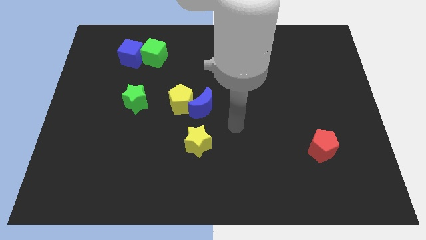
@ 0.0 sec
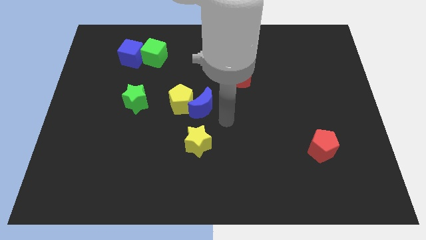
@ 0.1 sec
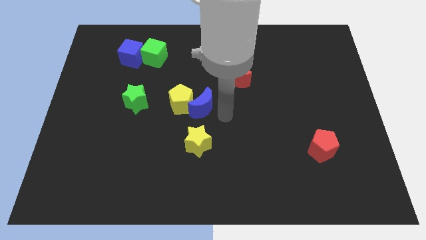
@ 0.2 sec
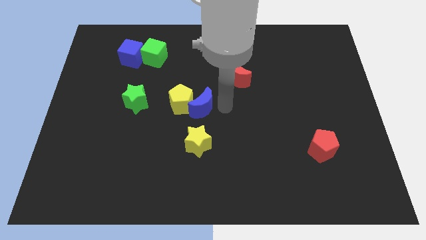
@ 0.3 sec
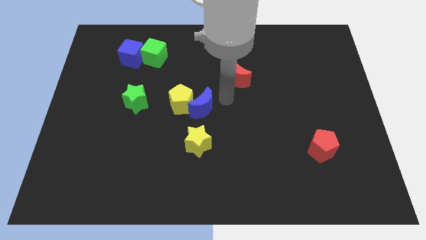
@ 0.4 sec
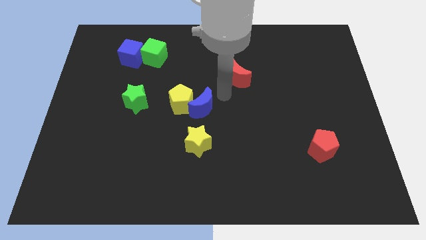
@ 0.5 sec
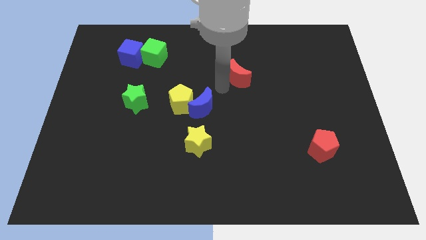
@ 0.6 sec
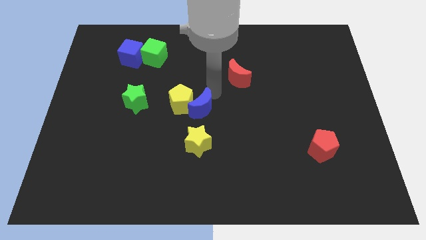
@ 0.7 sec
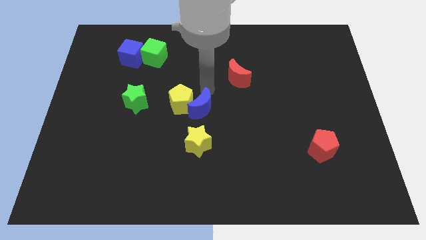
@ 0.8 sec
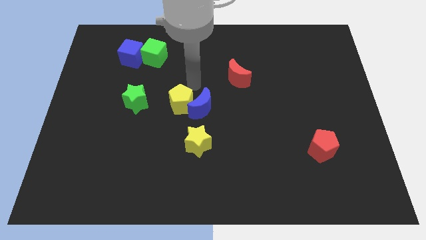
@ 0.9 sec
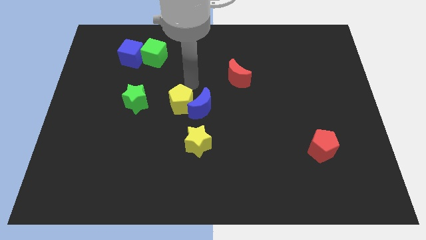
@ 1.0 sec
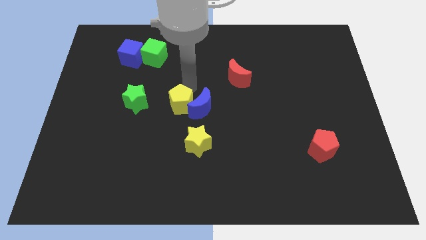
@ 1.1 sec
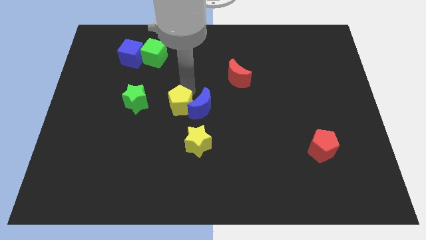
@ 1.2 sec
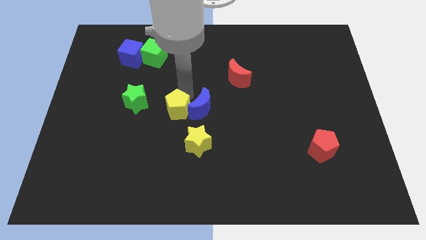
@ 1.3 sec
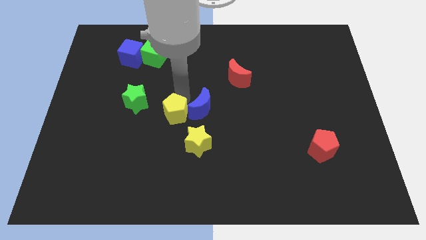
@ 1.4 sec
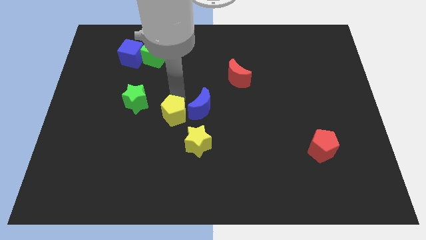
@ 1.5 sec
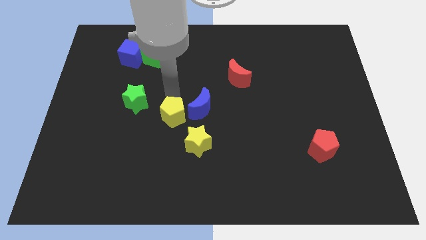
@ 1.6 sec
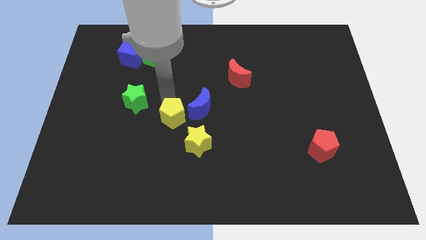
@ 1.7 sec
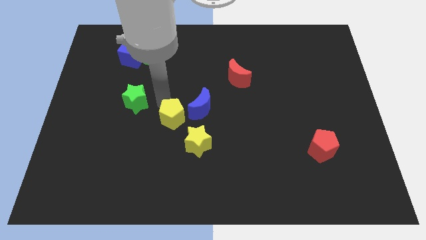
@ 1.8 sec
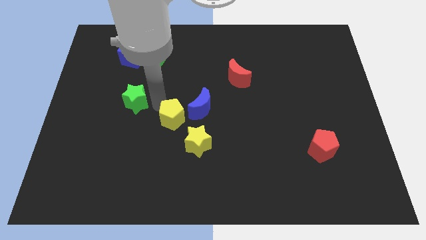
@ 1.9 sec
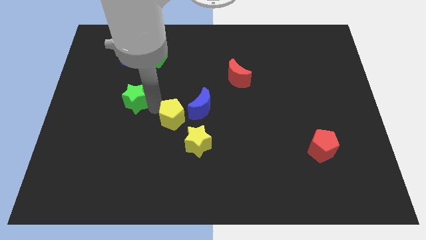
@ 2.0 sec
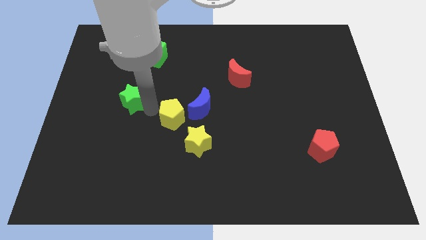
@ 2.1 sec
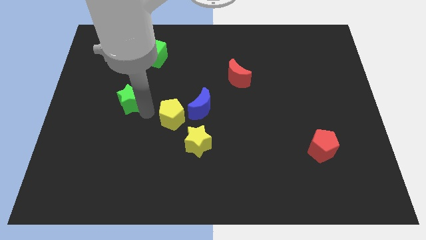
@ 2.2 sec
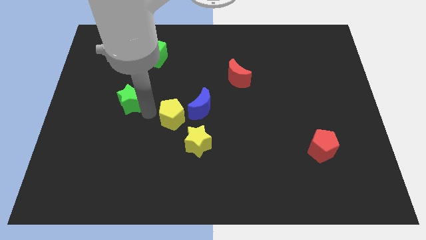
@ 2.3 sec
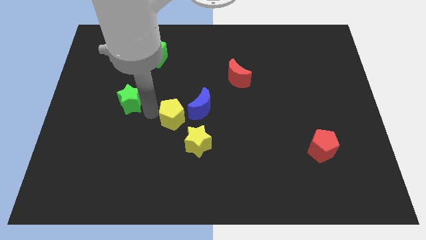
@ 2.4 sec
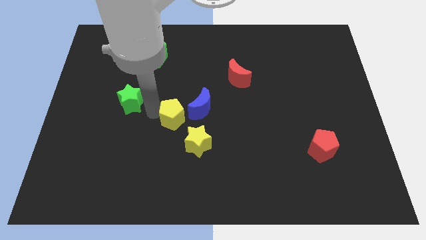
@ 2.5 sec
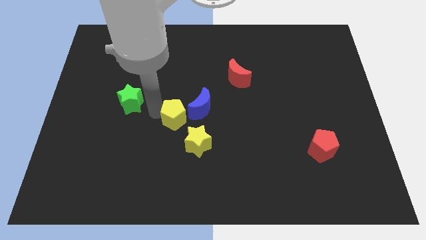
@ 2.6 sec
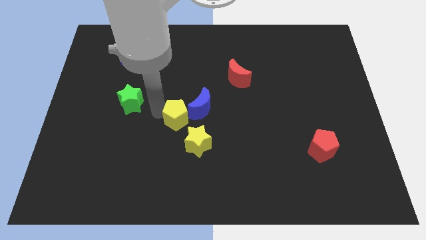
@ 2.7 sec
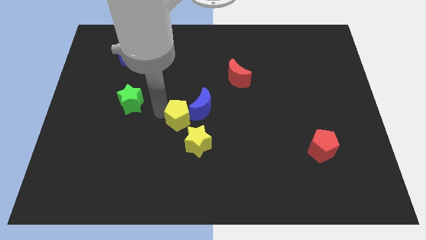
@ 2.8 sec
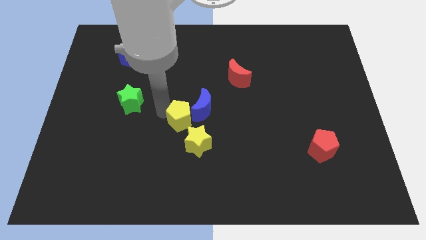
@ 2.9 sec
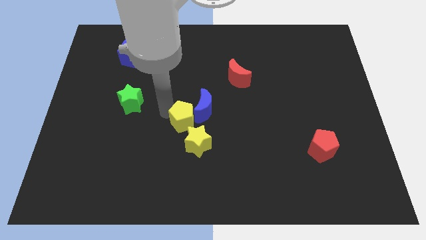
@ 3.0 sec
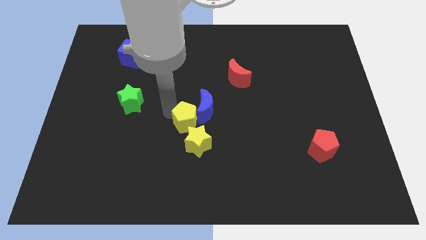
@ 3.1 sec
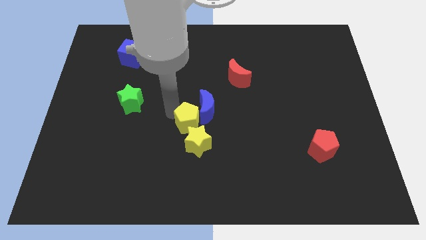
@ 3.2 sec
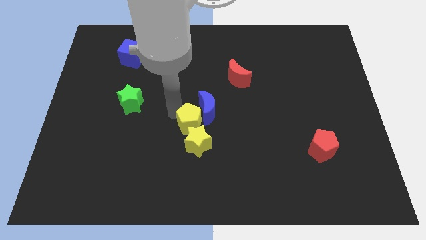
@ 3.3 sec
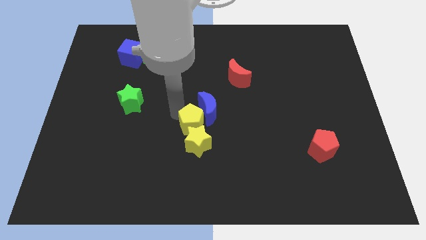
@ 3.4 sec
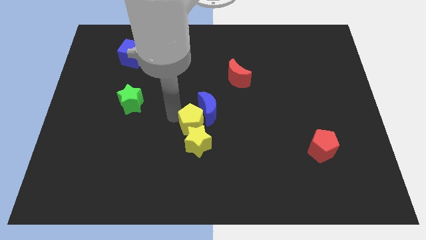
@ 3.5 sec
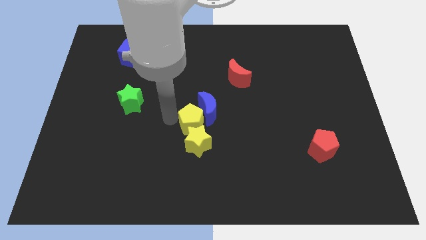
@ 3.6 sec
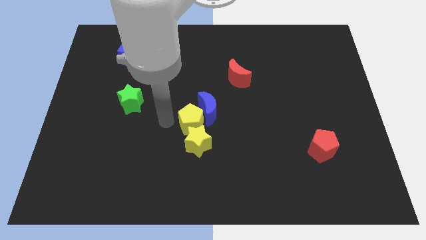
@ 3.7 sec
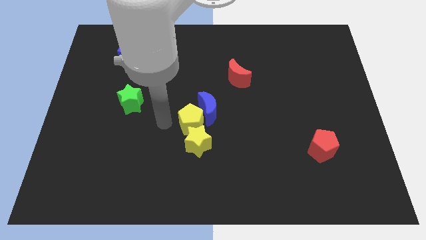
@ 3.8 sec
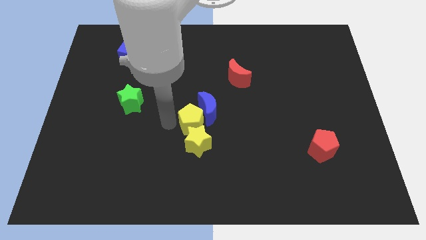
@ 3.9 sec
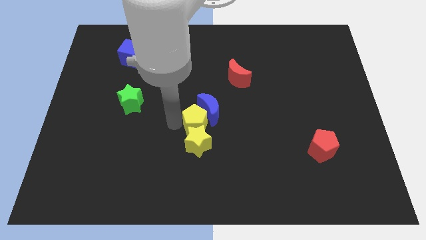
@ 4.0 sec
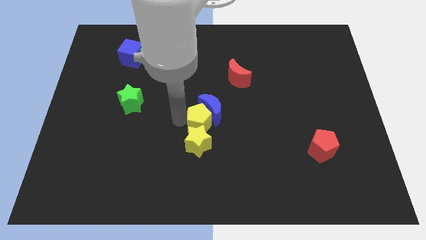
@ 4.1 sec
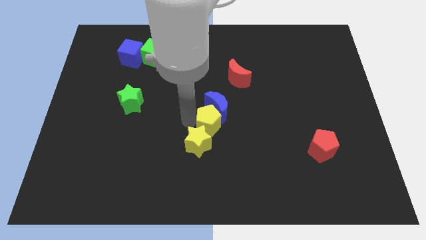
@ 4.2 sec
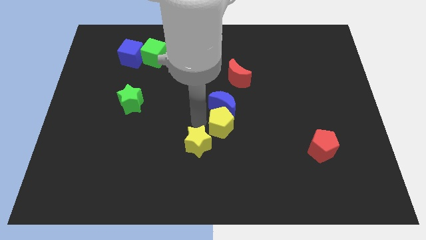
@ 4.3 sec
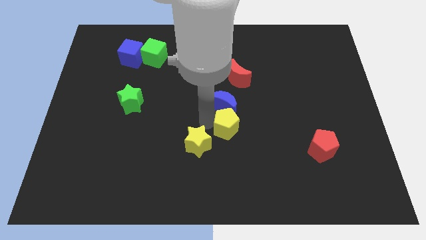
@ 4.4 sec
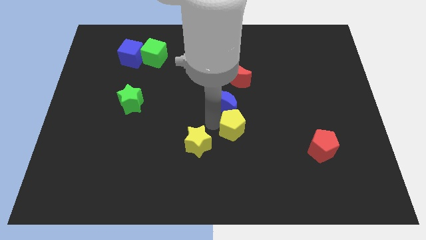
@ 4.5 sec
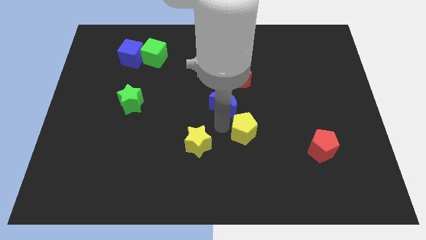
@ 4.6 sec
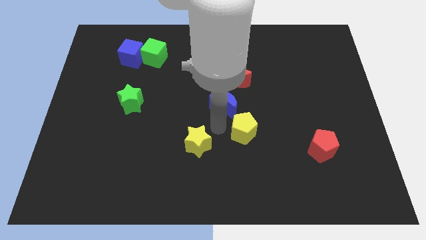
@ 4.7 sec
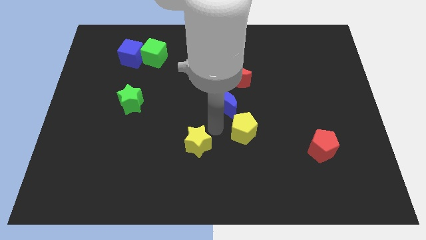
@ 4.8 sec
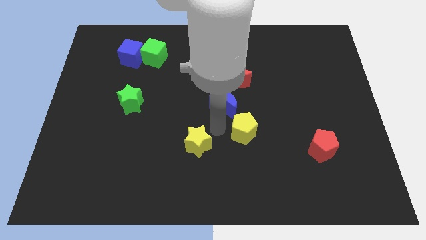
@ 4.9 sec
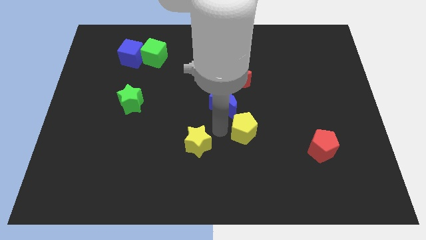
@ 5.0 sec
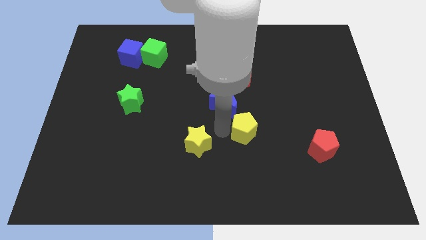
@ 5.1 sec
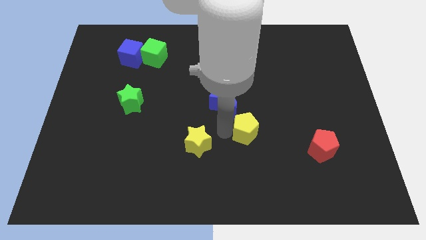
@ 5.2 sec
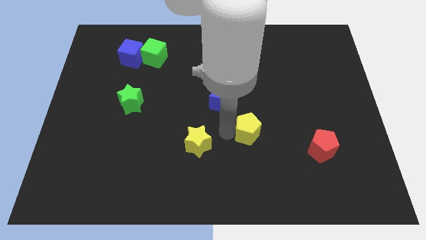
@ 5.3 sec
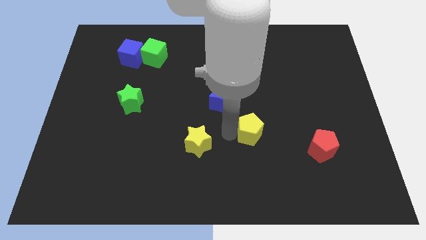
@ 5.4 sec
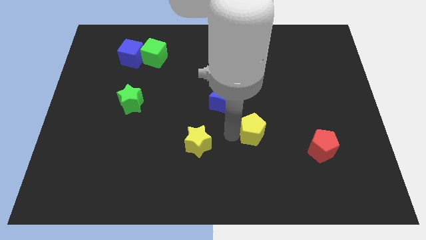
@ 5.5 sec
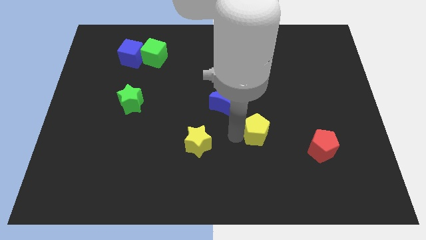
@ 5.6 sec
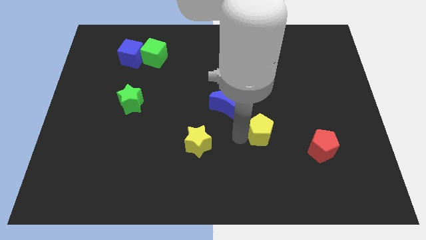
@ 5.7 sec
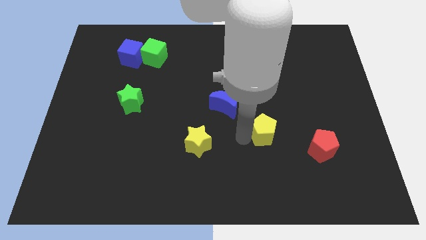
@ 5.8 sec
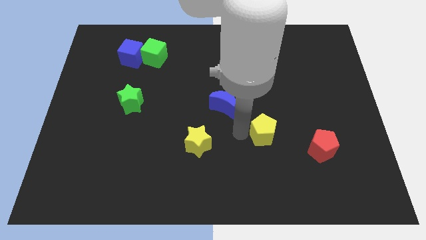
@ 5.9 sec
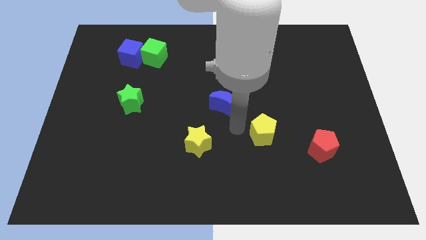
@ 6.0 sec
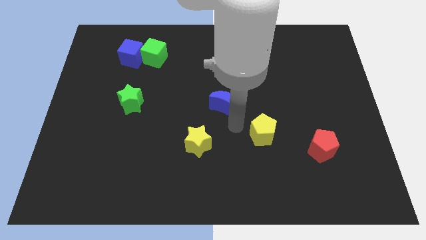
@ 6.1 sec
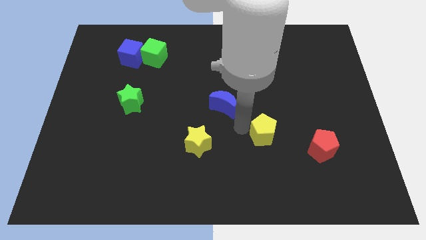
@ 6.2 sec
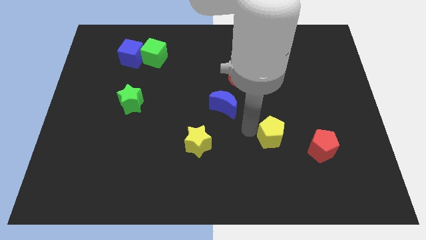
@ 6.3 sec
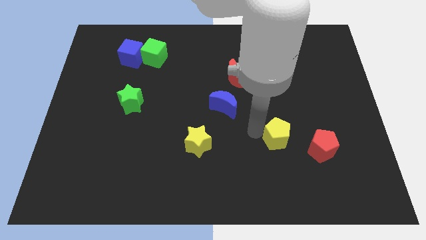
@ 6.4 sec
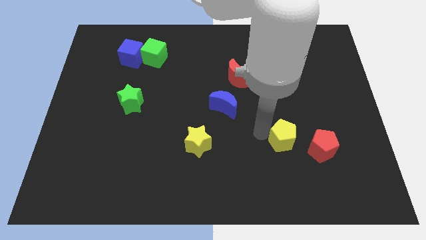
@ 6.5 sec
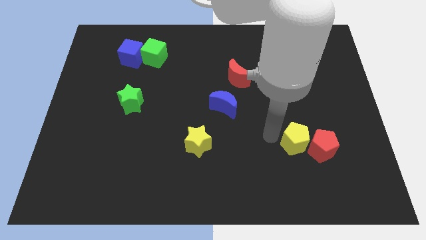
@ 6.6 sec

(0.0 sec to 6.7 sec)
put the yellow pentagon towards the red pentagon

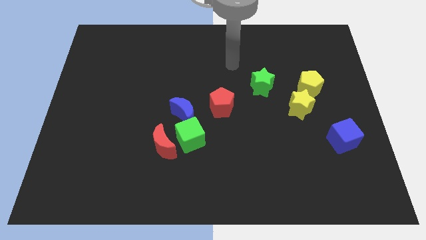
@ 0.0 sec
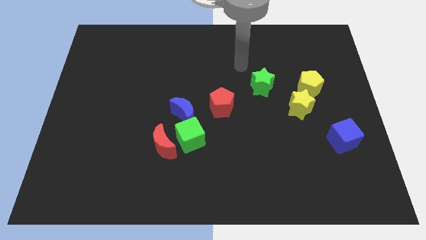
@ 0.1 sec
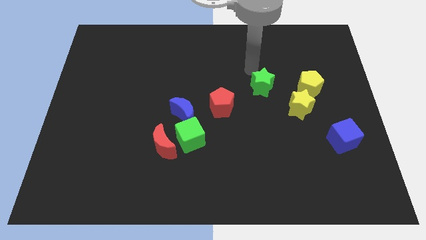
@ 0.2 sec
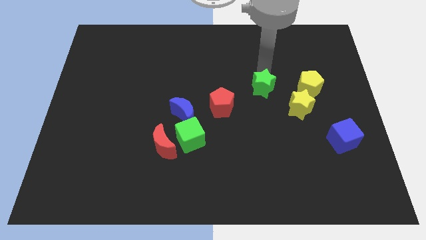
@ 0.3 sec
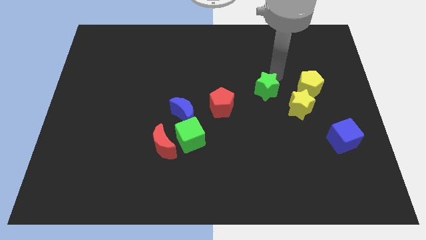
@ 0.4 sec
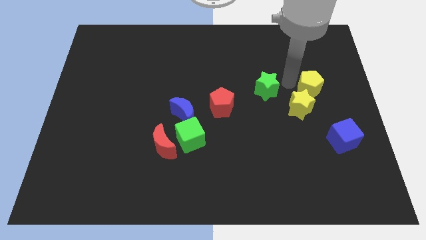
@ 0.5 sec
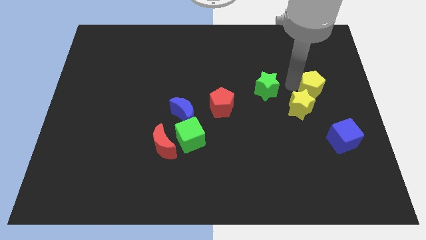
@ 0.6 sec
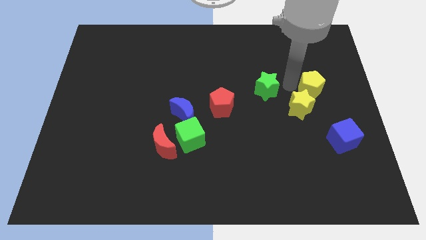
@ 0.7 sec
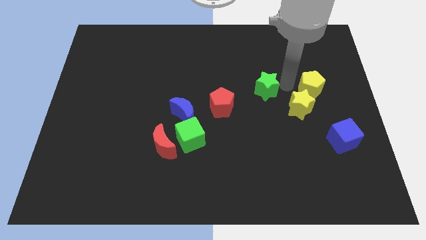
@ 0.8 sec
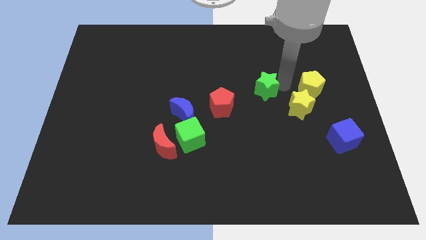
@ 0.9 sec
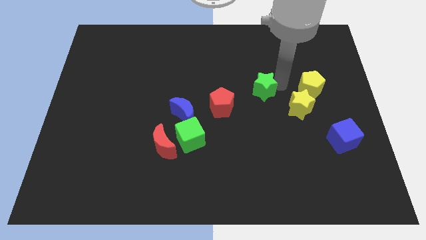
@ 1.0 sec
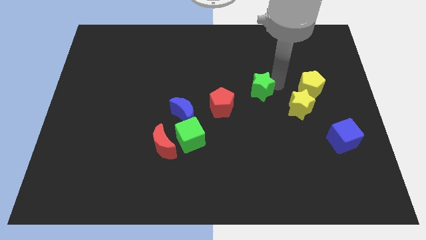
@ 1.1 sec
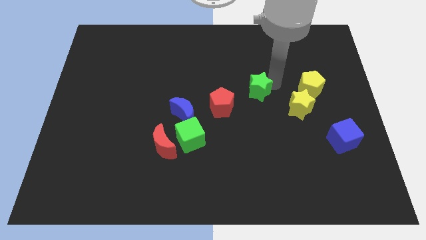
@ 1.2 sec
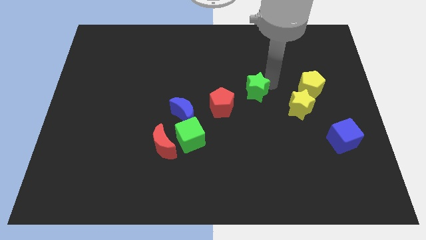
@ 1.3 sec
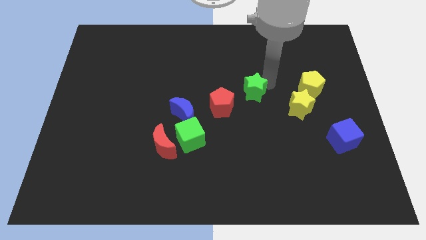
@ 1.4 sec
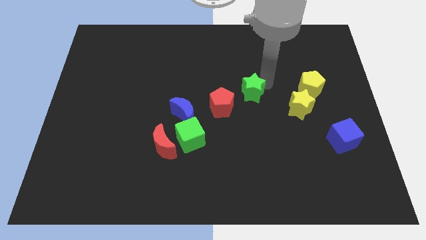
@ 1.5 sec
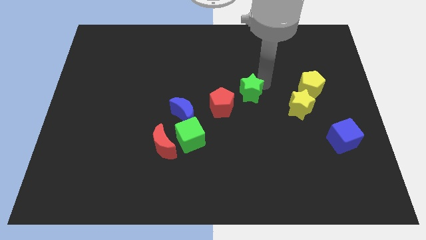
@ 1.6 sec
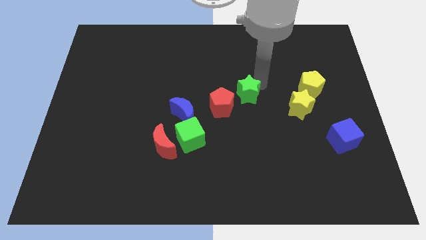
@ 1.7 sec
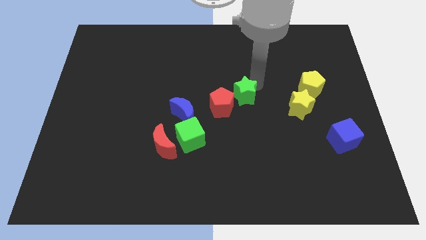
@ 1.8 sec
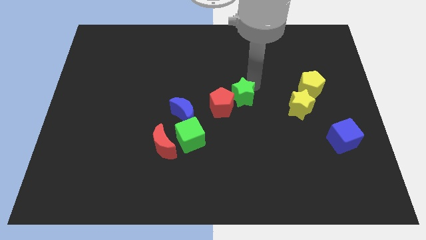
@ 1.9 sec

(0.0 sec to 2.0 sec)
push the green star close to the red pentagon
